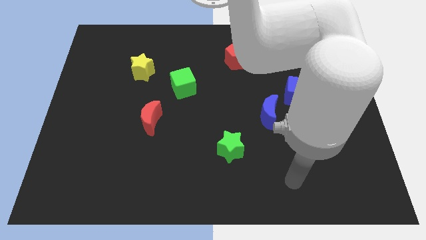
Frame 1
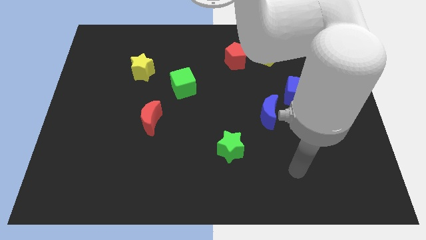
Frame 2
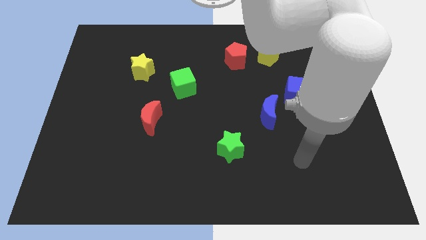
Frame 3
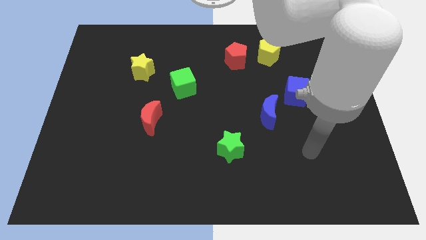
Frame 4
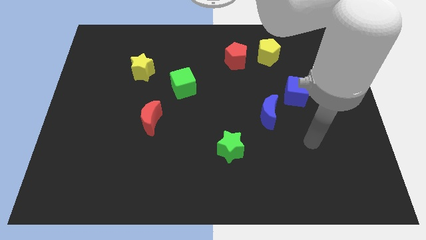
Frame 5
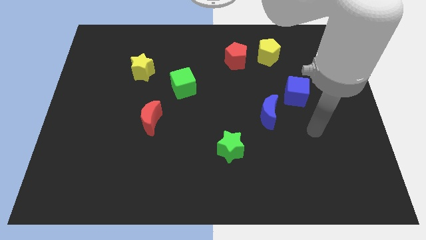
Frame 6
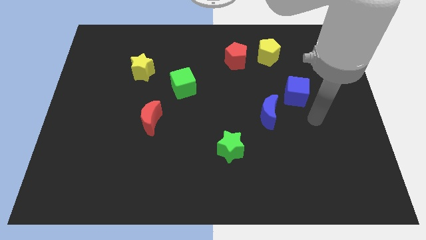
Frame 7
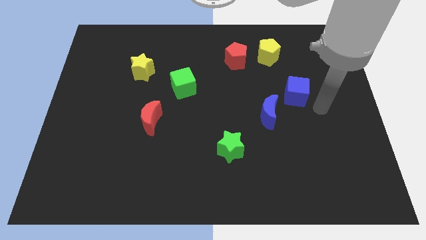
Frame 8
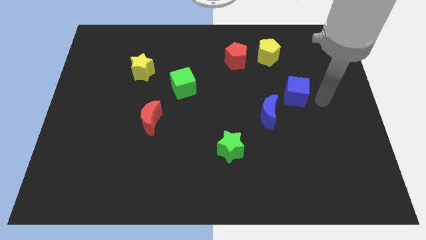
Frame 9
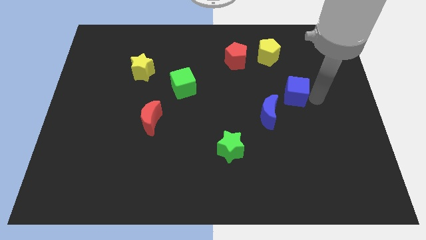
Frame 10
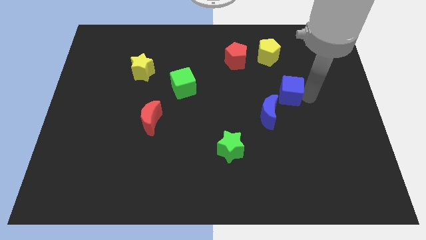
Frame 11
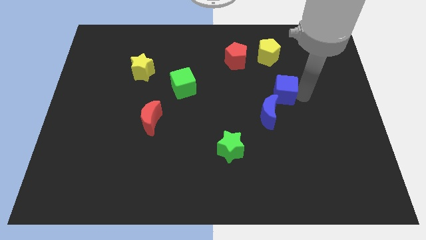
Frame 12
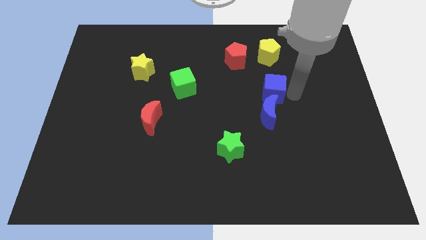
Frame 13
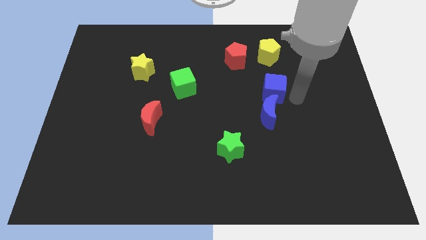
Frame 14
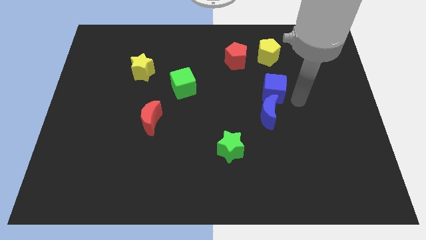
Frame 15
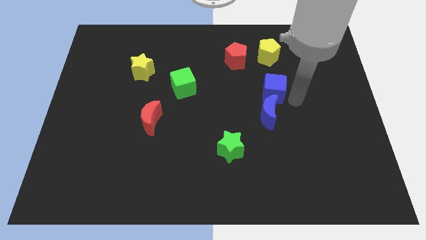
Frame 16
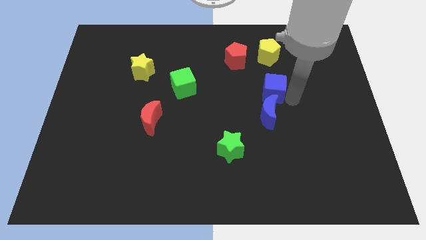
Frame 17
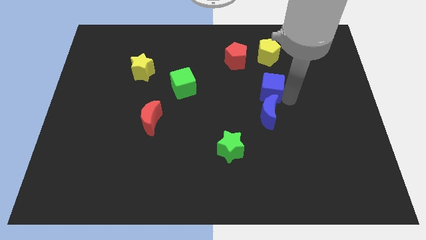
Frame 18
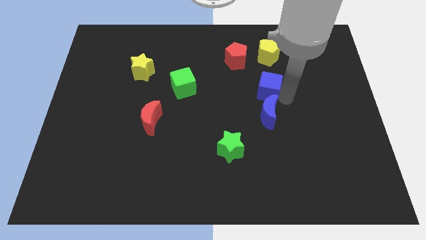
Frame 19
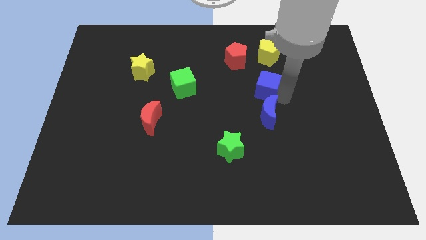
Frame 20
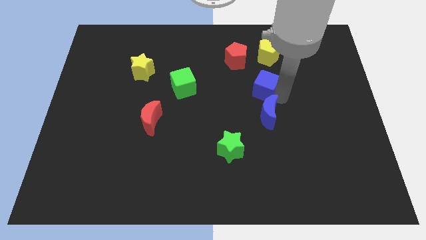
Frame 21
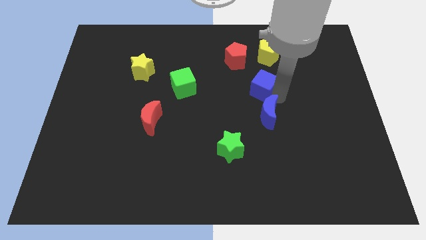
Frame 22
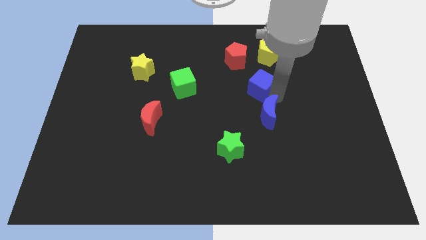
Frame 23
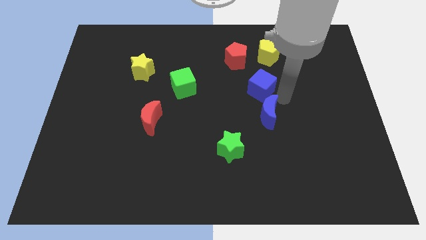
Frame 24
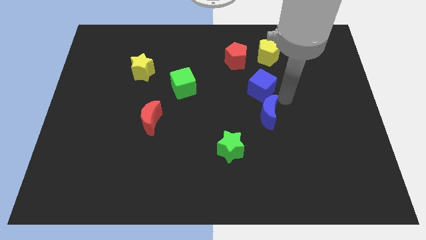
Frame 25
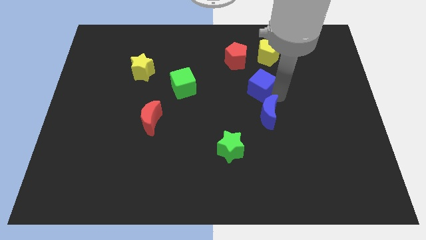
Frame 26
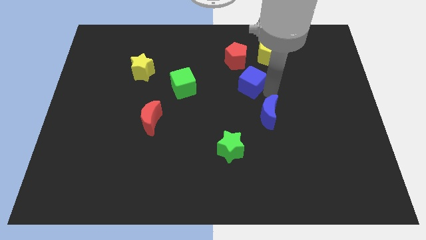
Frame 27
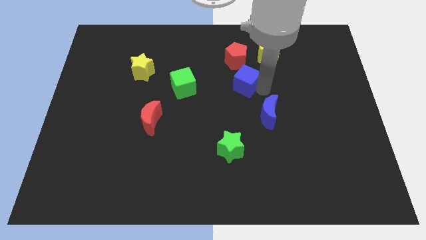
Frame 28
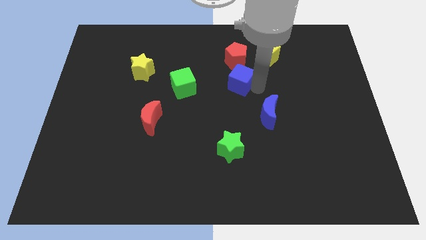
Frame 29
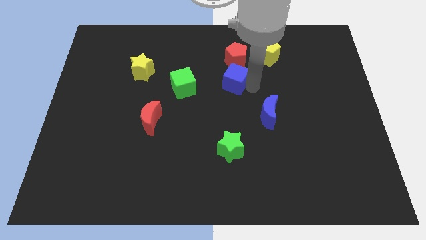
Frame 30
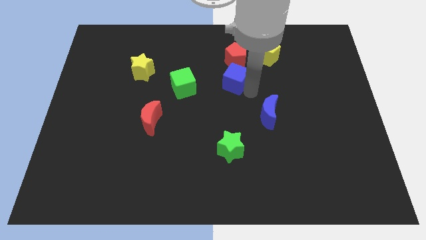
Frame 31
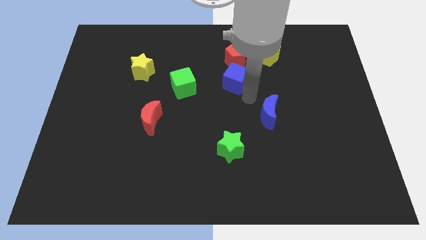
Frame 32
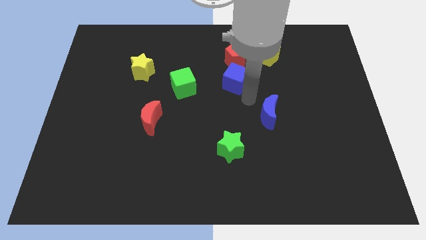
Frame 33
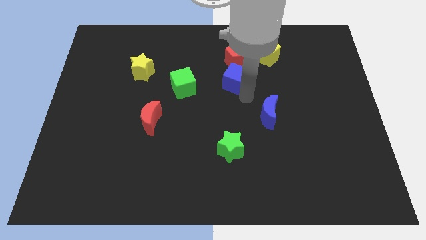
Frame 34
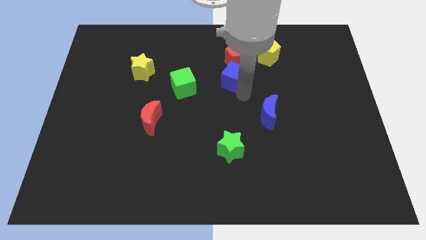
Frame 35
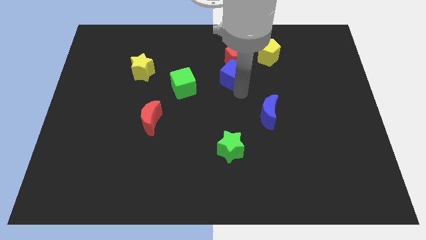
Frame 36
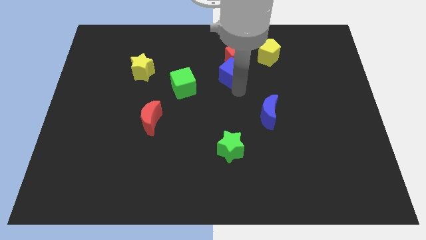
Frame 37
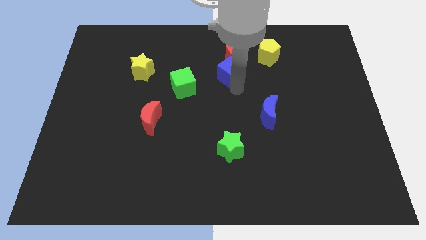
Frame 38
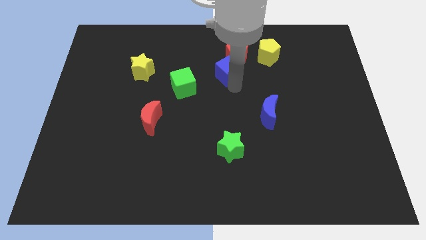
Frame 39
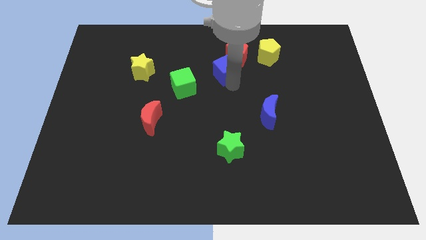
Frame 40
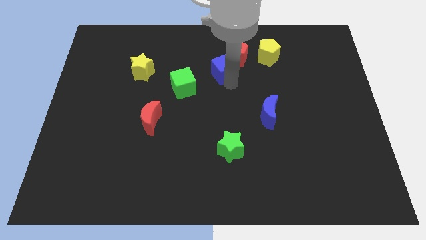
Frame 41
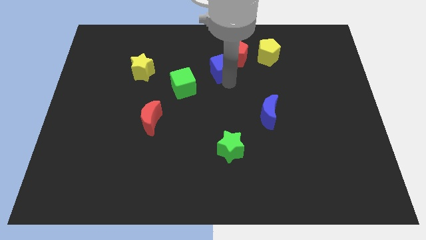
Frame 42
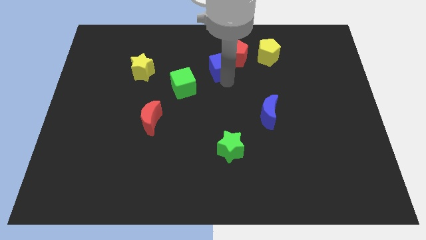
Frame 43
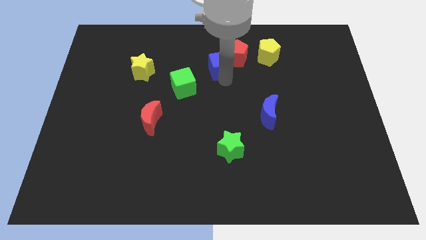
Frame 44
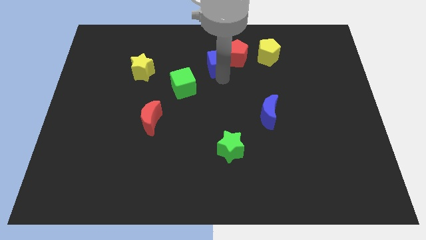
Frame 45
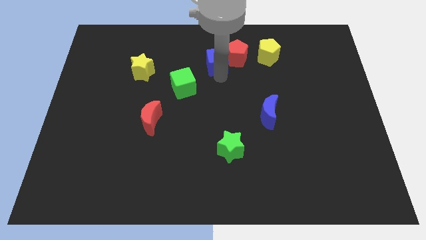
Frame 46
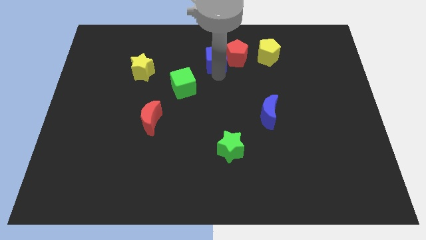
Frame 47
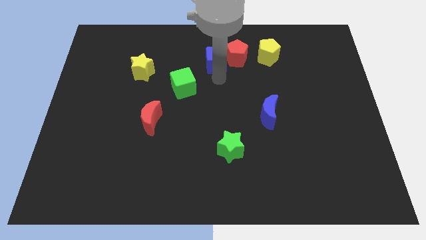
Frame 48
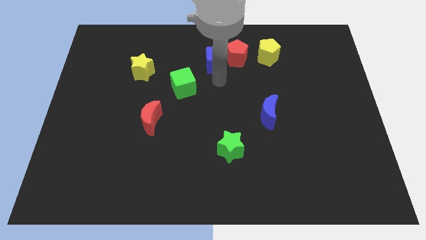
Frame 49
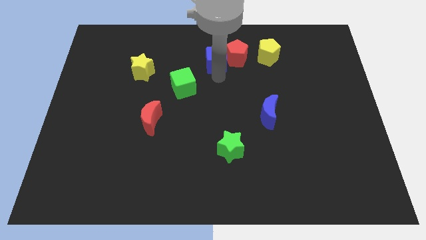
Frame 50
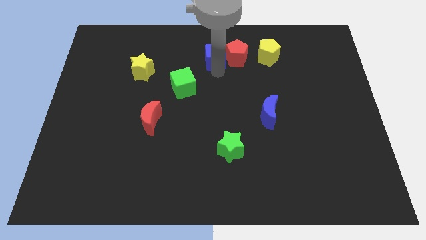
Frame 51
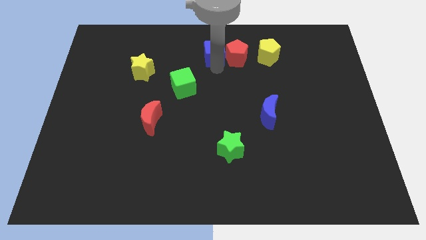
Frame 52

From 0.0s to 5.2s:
move the blue cube to the top

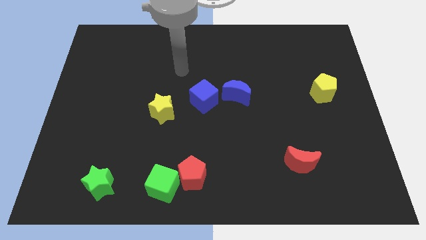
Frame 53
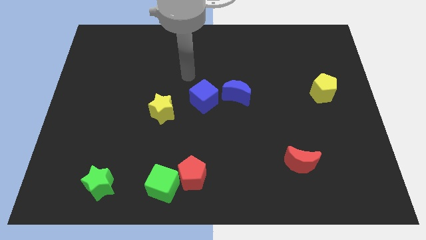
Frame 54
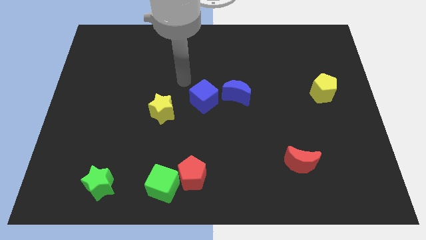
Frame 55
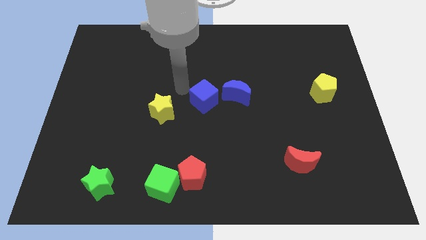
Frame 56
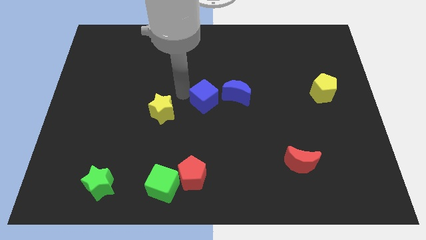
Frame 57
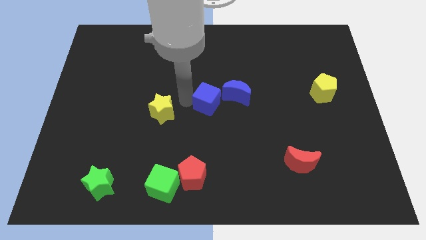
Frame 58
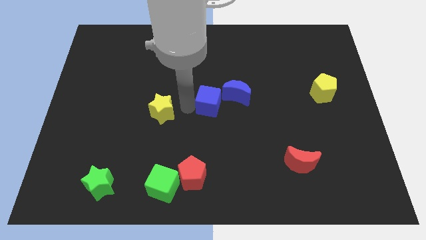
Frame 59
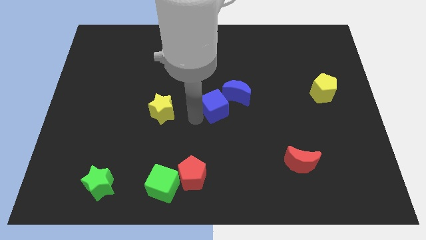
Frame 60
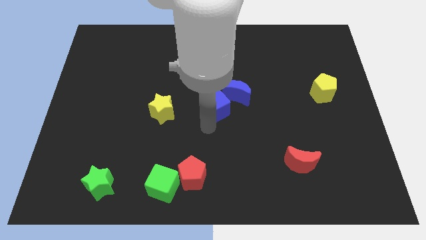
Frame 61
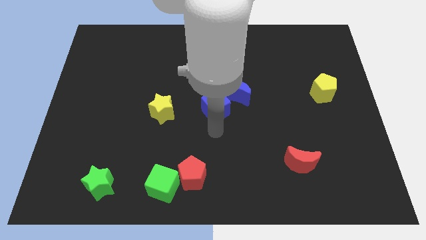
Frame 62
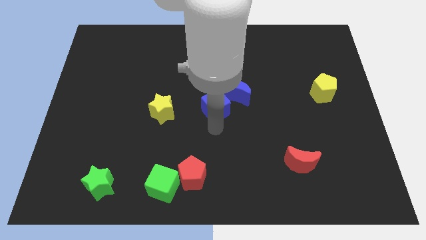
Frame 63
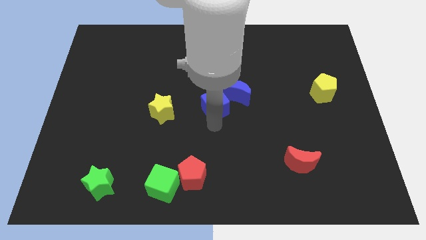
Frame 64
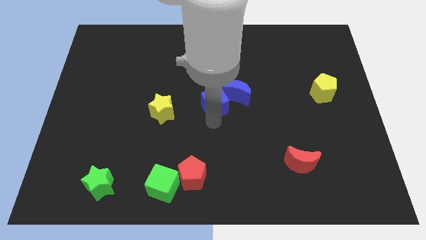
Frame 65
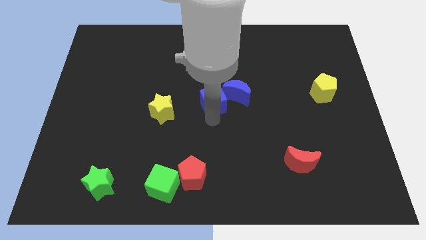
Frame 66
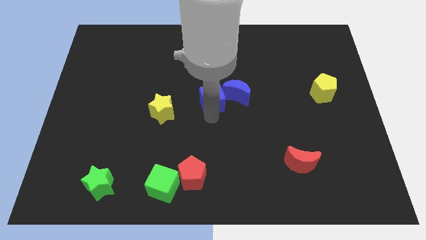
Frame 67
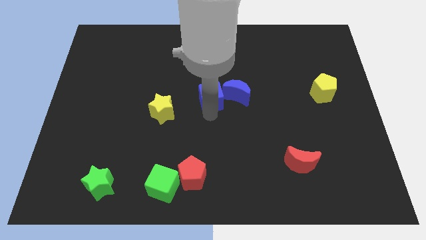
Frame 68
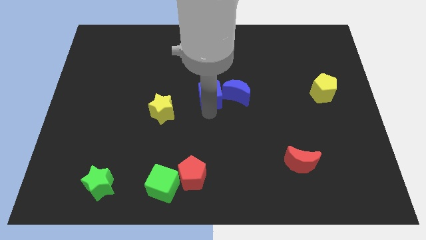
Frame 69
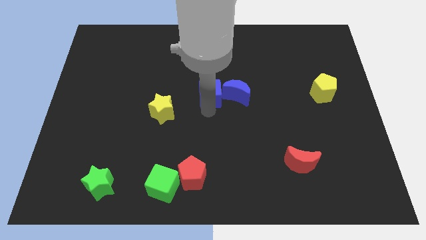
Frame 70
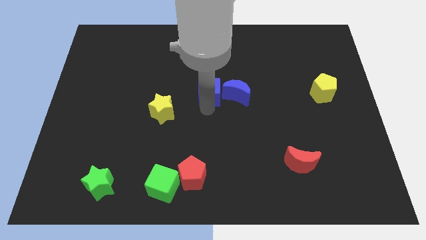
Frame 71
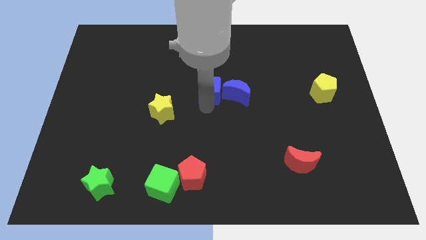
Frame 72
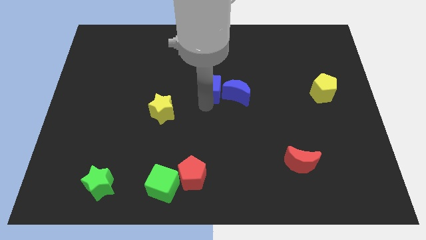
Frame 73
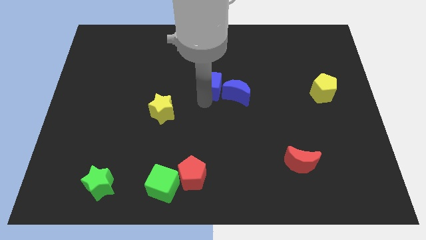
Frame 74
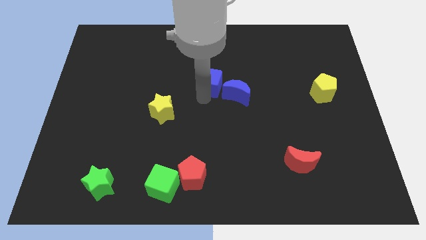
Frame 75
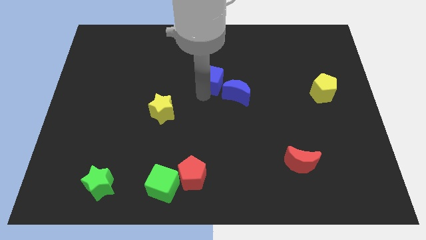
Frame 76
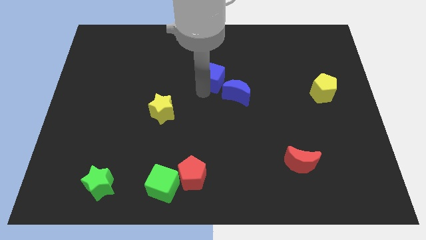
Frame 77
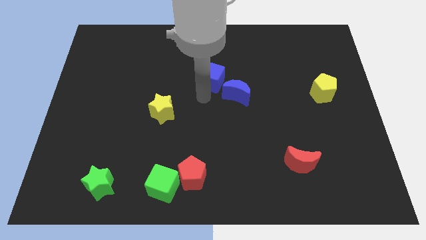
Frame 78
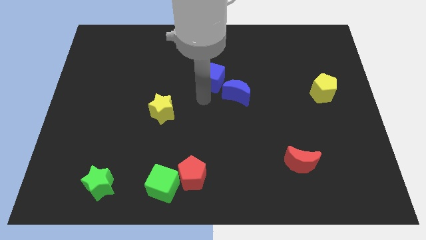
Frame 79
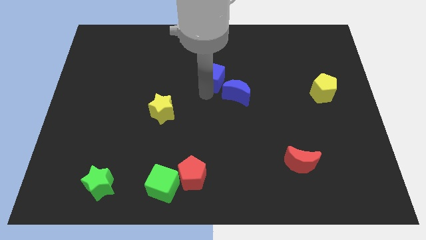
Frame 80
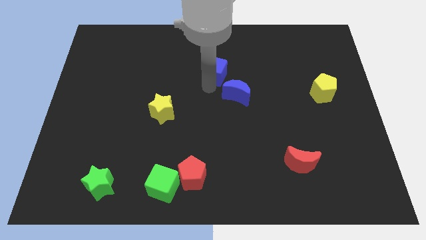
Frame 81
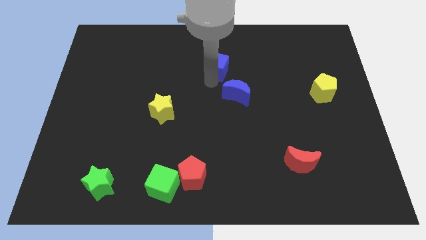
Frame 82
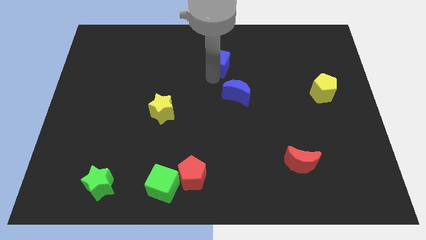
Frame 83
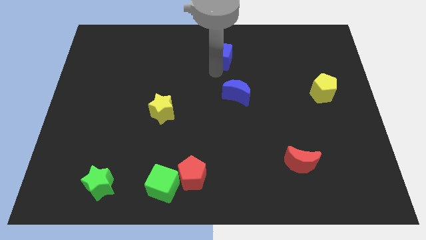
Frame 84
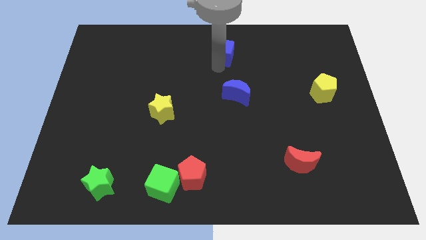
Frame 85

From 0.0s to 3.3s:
slide the blue cube to the top side
